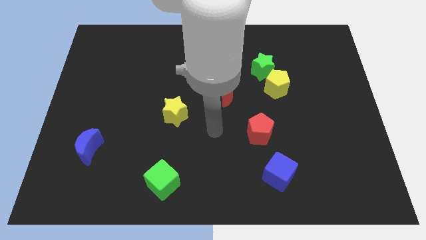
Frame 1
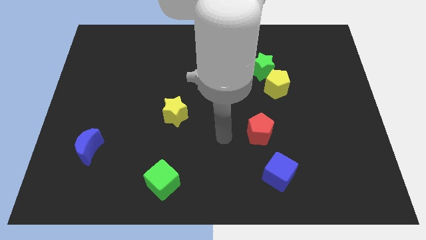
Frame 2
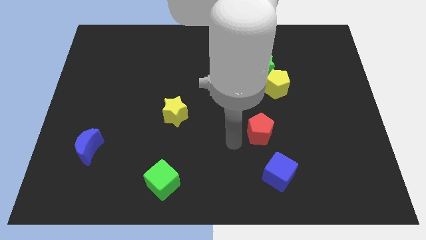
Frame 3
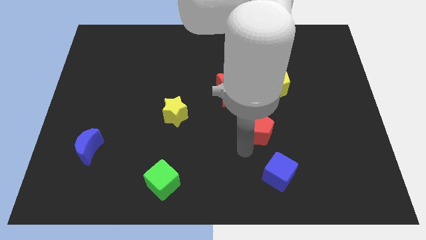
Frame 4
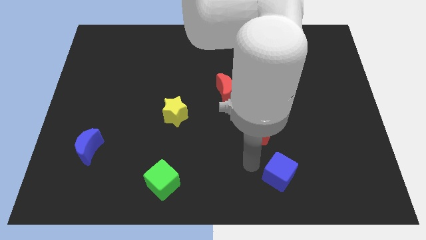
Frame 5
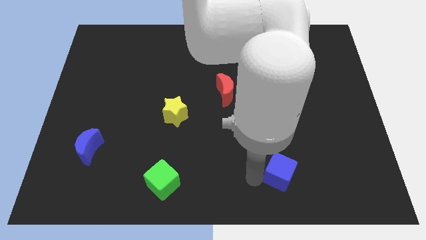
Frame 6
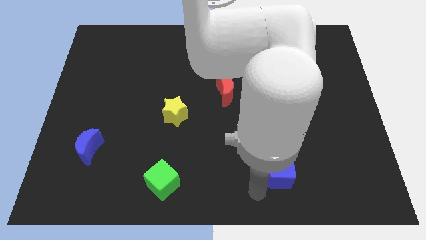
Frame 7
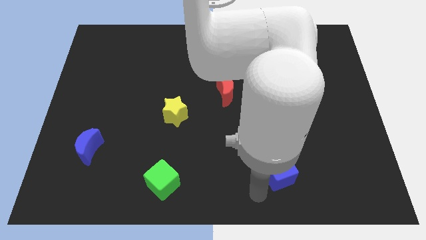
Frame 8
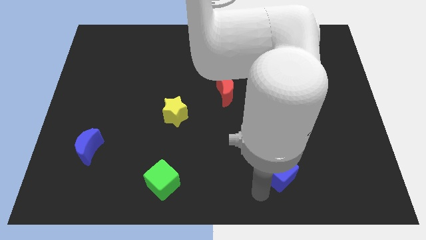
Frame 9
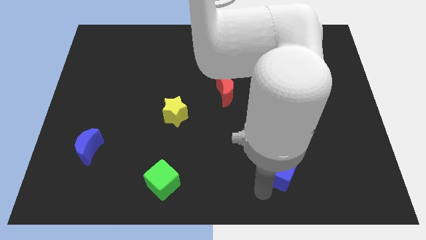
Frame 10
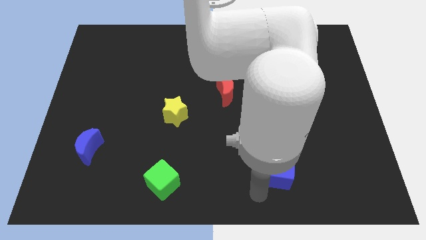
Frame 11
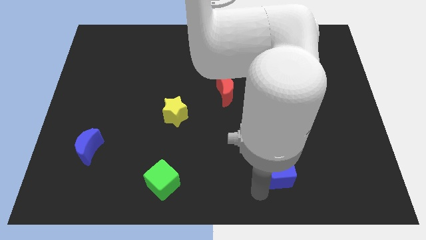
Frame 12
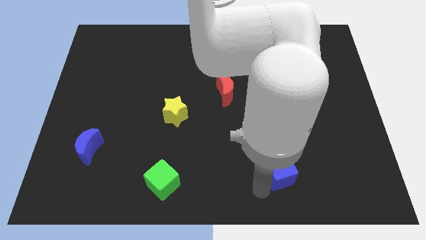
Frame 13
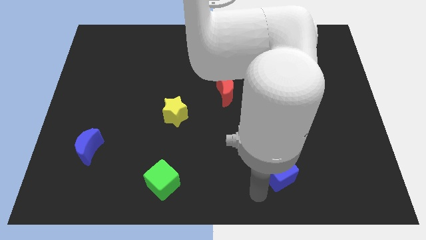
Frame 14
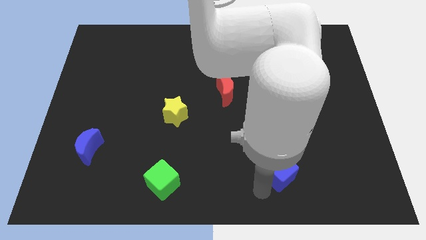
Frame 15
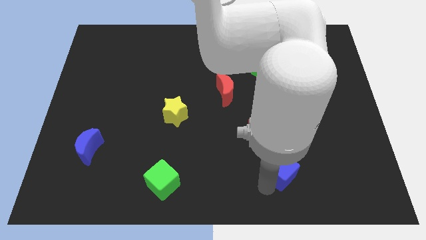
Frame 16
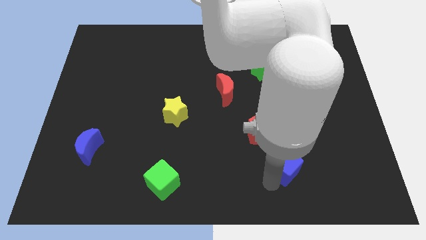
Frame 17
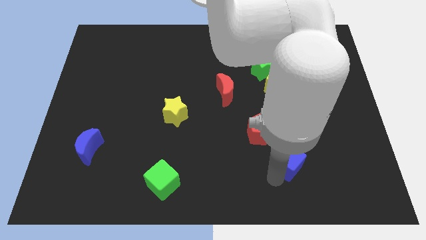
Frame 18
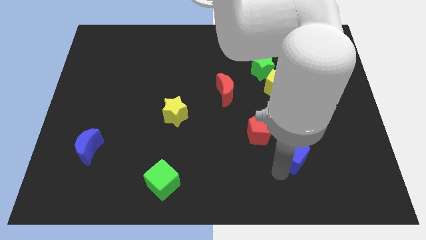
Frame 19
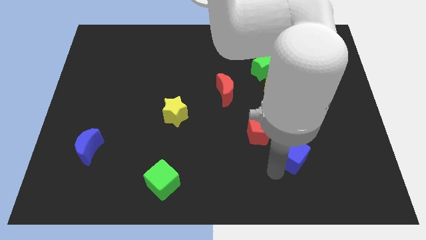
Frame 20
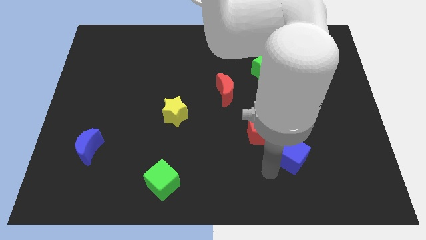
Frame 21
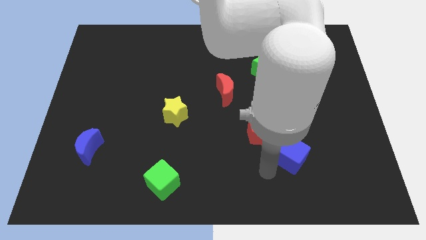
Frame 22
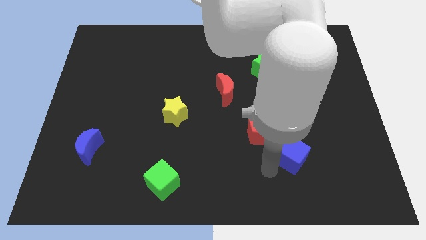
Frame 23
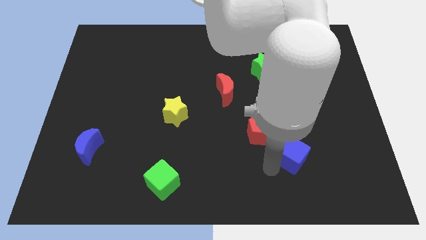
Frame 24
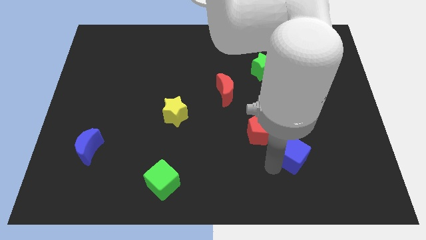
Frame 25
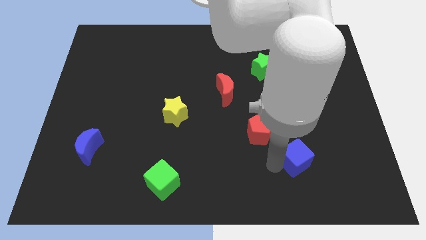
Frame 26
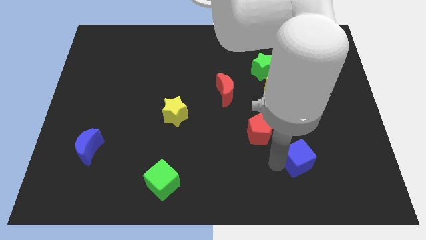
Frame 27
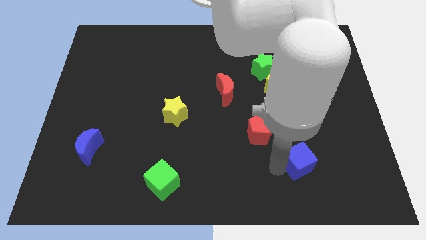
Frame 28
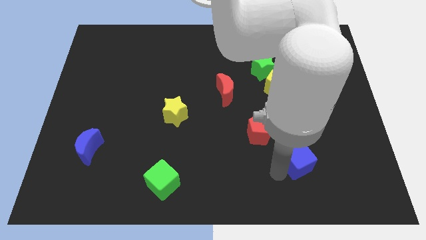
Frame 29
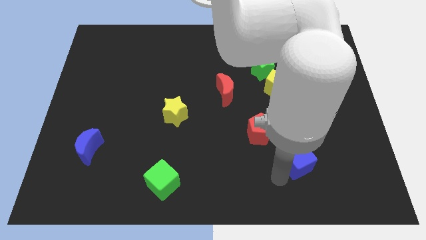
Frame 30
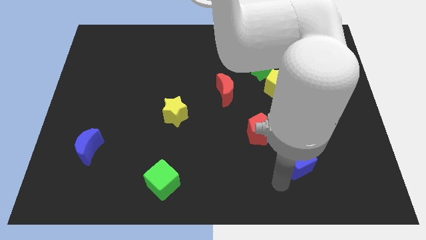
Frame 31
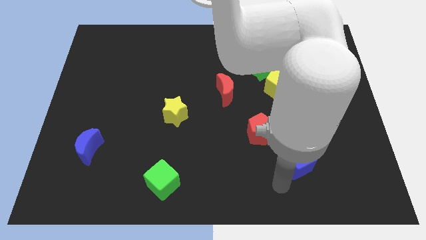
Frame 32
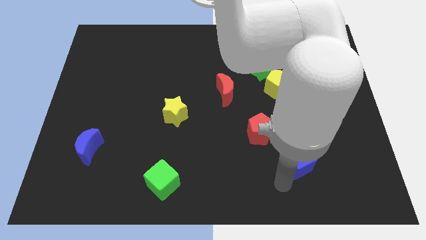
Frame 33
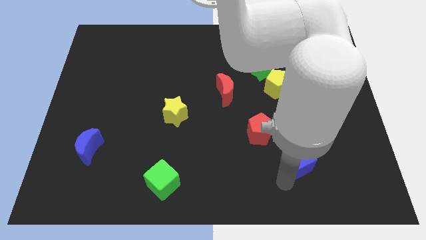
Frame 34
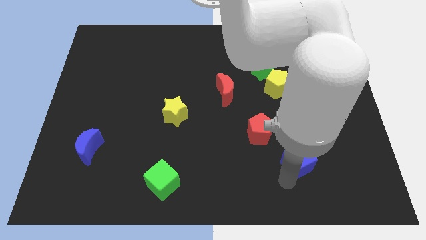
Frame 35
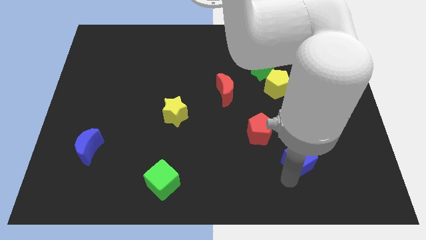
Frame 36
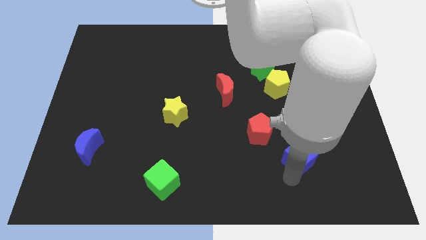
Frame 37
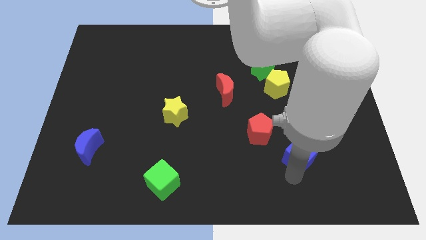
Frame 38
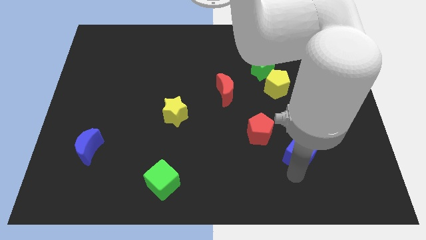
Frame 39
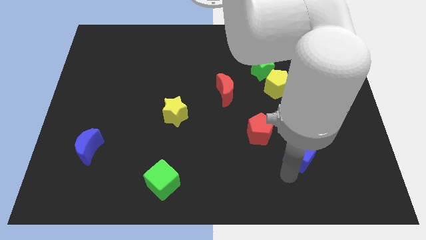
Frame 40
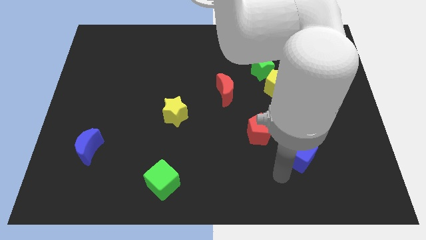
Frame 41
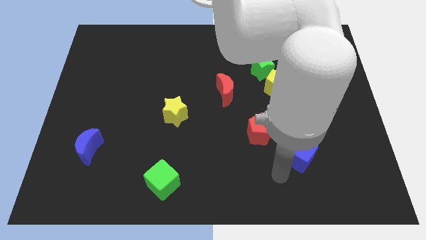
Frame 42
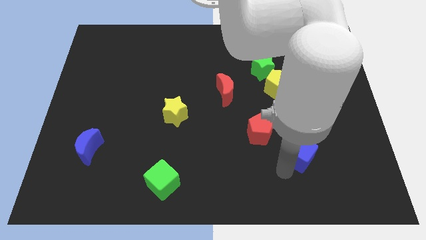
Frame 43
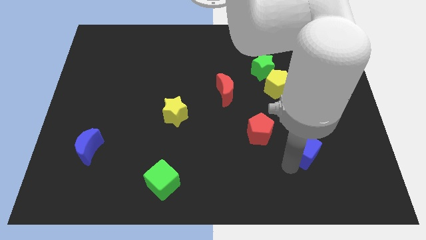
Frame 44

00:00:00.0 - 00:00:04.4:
slightly push the blue cube diagonally up and to the right

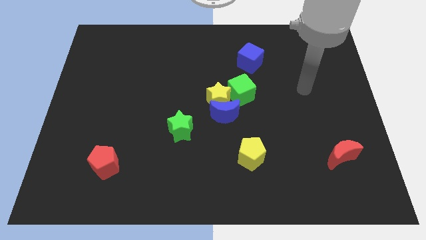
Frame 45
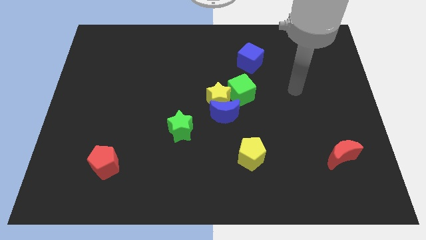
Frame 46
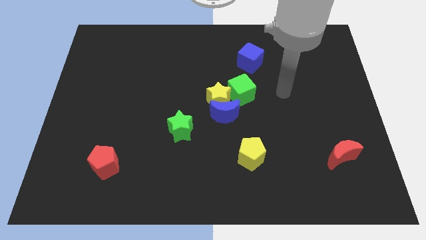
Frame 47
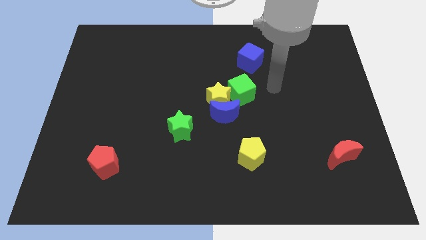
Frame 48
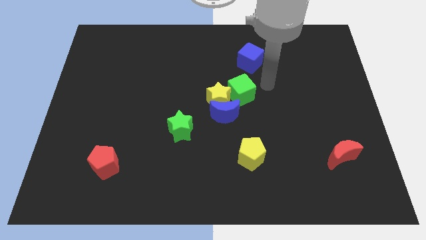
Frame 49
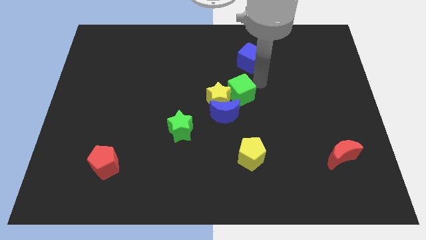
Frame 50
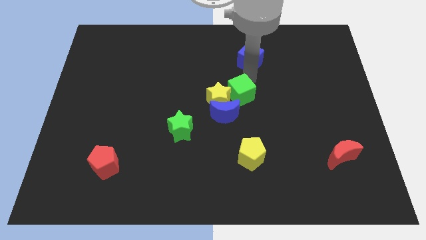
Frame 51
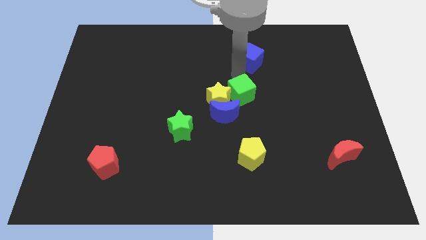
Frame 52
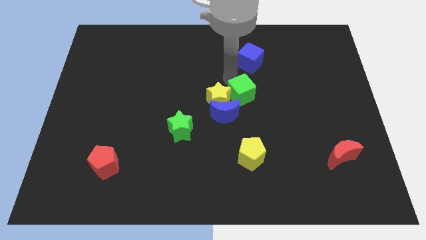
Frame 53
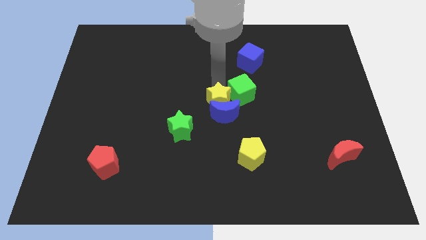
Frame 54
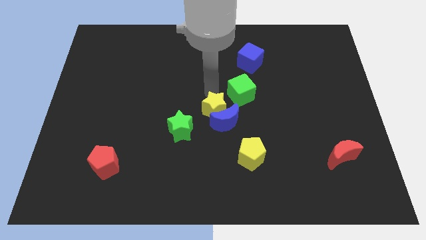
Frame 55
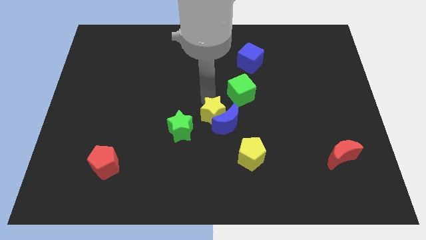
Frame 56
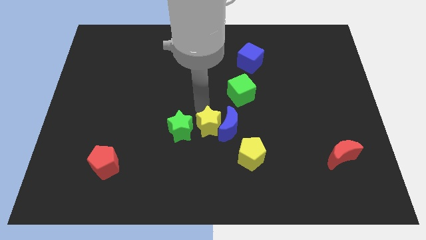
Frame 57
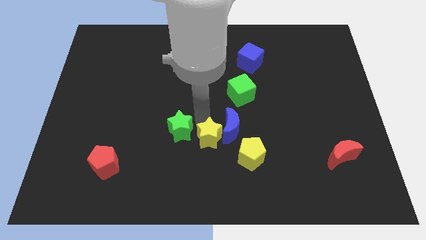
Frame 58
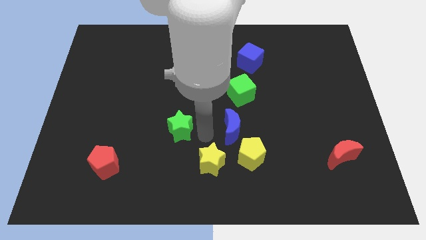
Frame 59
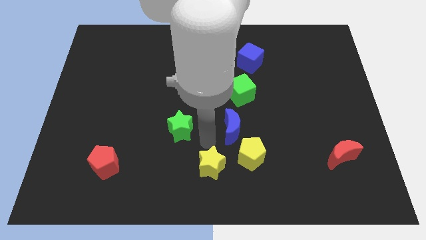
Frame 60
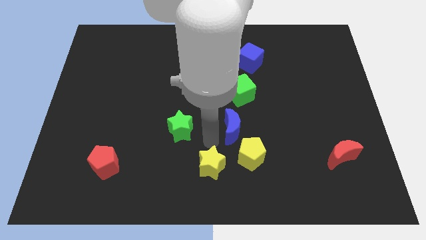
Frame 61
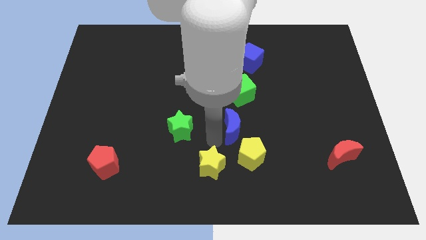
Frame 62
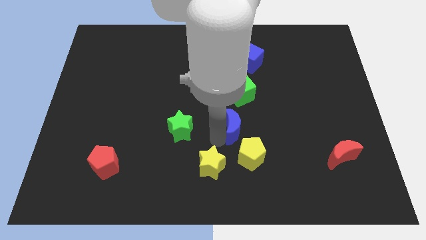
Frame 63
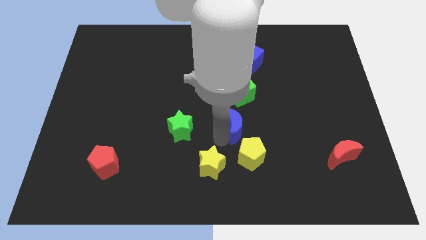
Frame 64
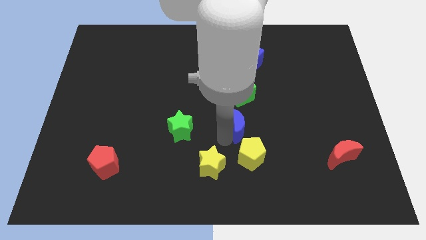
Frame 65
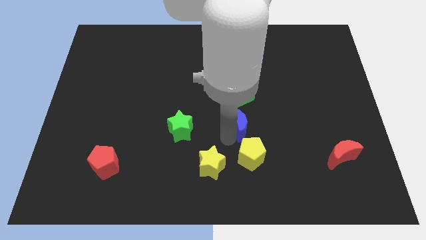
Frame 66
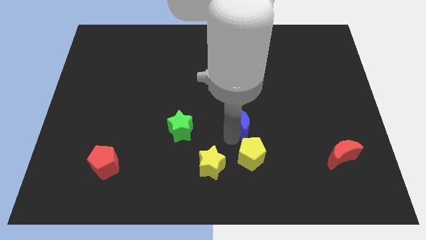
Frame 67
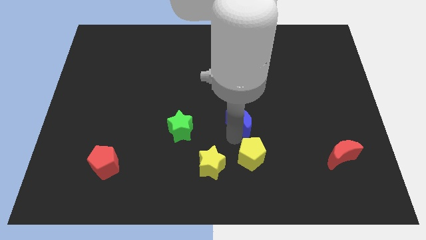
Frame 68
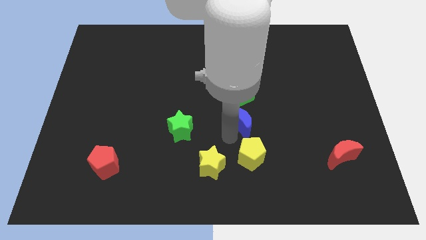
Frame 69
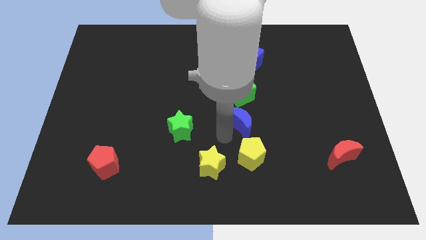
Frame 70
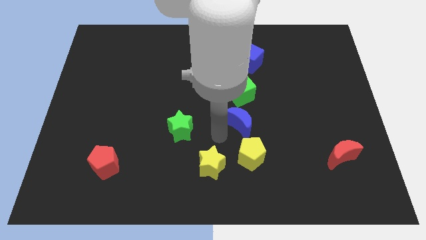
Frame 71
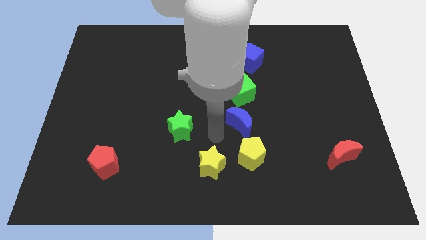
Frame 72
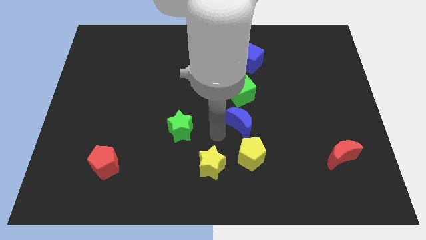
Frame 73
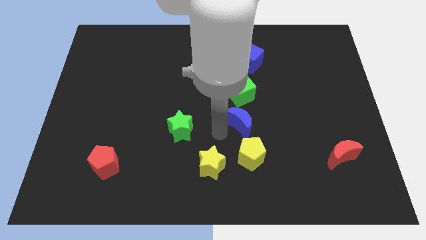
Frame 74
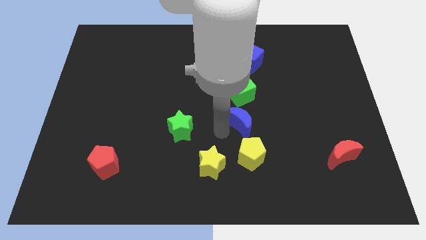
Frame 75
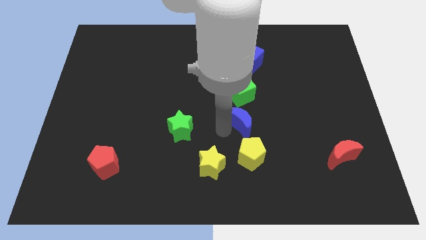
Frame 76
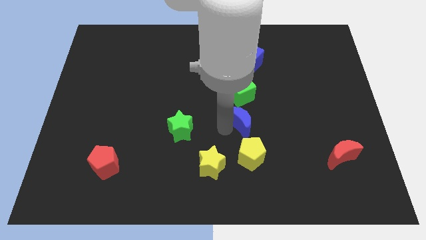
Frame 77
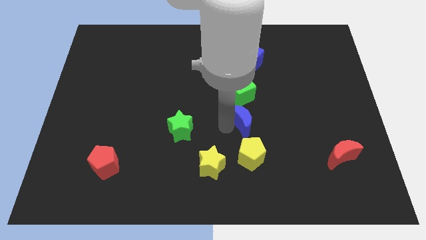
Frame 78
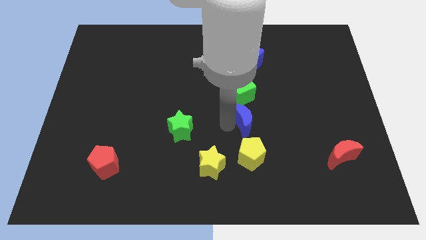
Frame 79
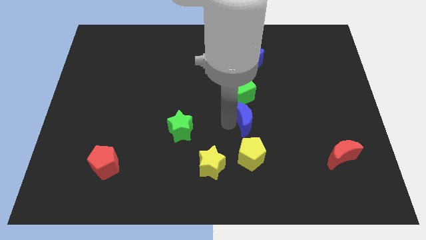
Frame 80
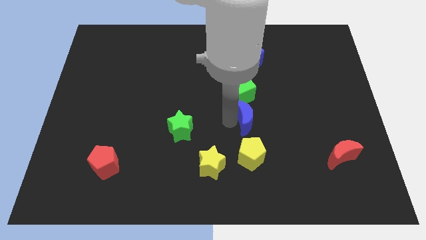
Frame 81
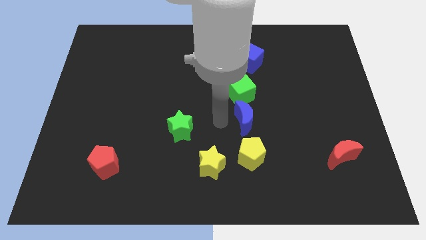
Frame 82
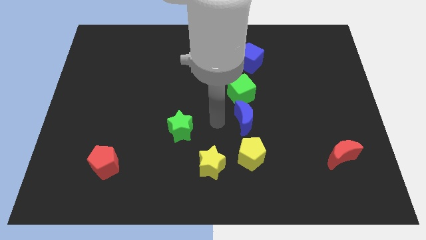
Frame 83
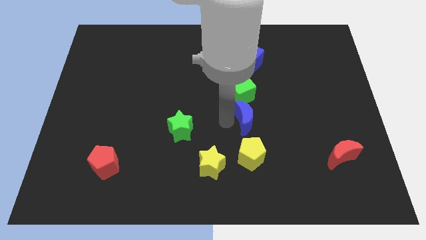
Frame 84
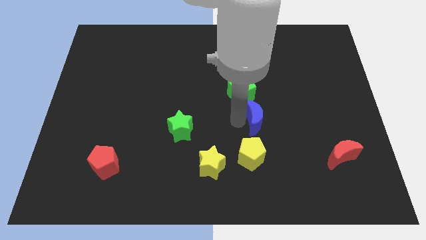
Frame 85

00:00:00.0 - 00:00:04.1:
slightly push the blue moon right
